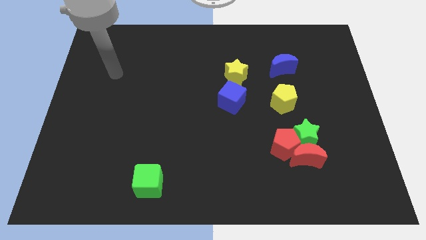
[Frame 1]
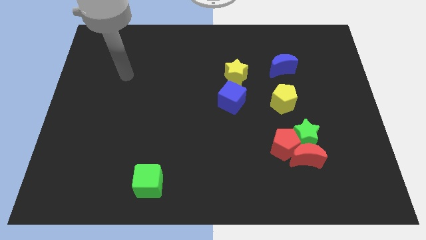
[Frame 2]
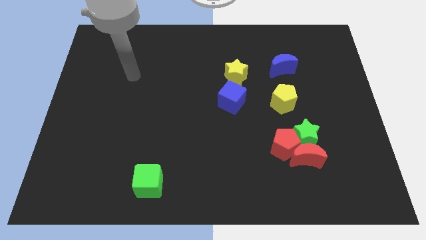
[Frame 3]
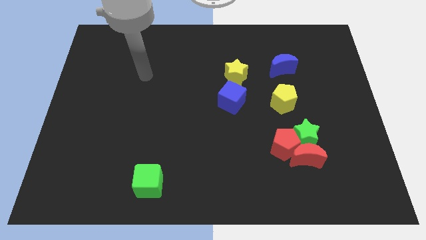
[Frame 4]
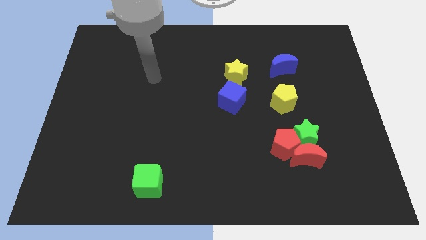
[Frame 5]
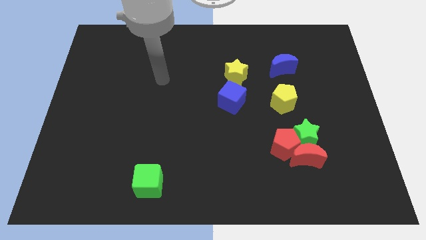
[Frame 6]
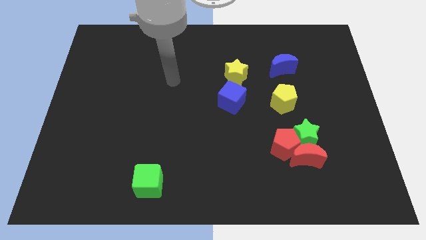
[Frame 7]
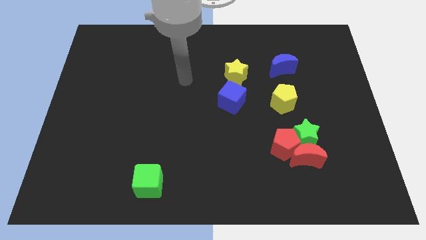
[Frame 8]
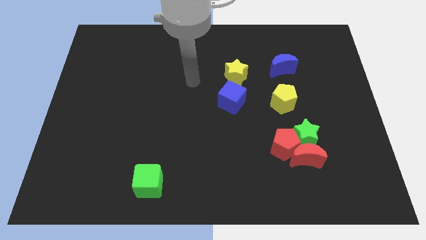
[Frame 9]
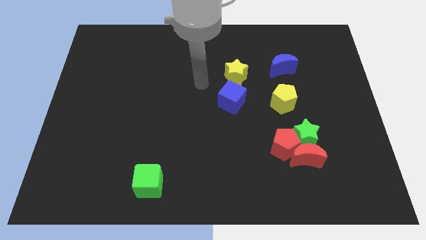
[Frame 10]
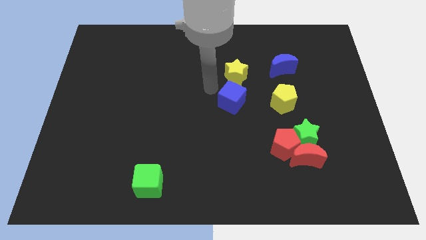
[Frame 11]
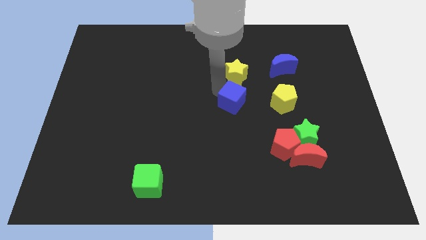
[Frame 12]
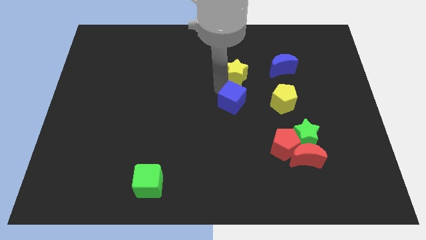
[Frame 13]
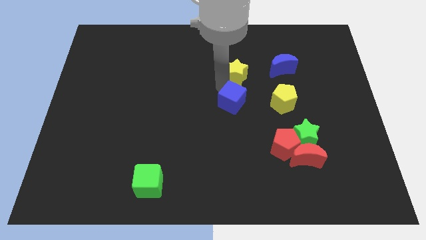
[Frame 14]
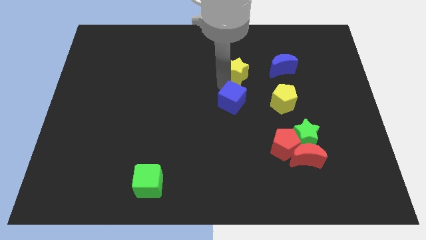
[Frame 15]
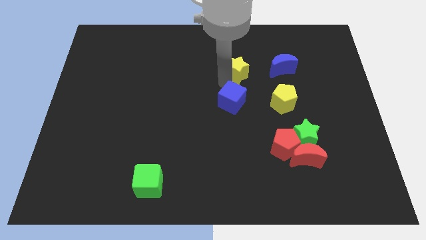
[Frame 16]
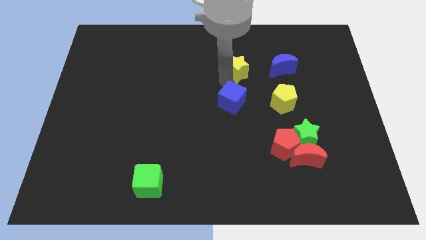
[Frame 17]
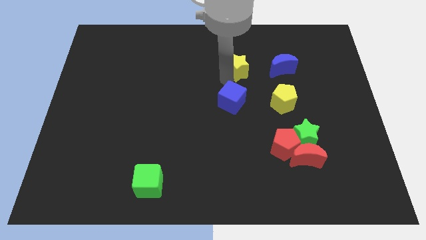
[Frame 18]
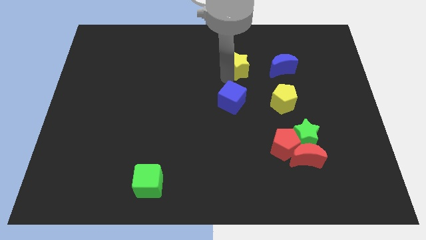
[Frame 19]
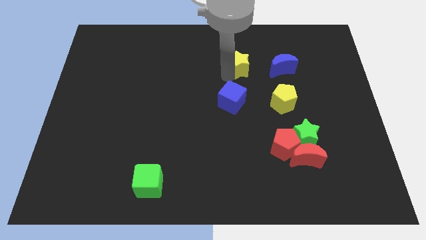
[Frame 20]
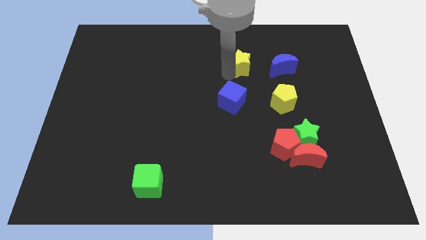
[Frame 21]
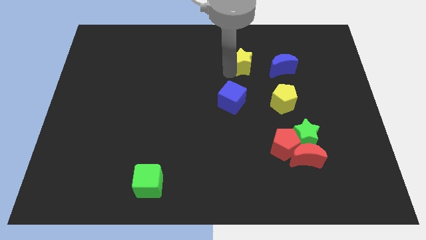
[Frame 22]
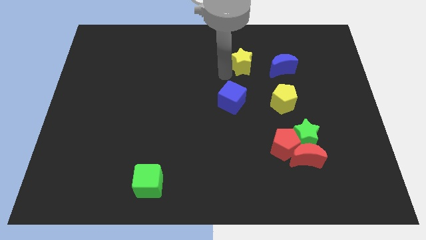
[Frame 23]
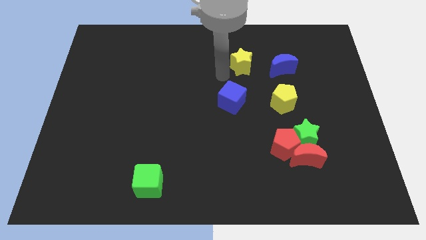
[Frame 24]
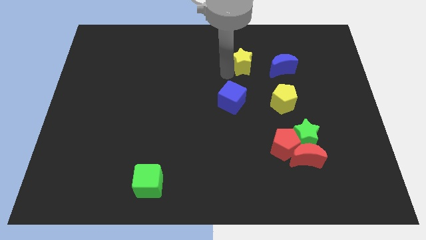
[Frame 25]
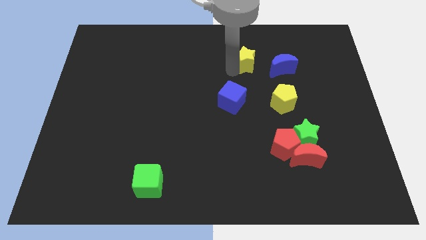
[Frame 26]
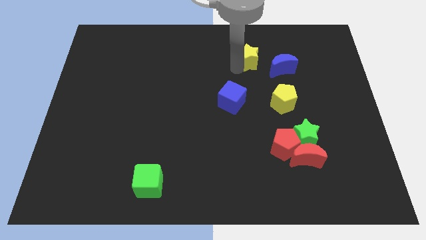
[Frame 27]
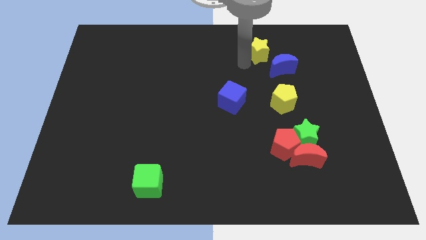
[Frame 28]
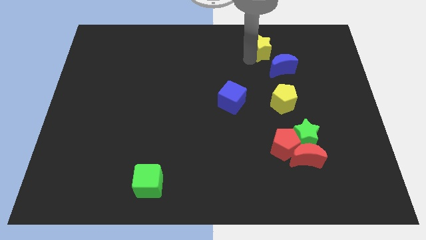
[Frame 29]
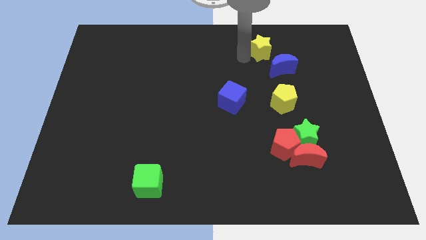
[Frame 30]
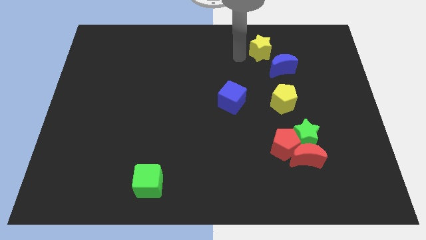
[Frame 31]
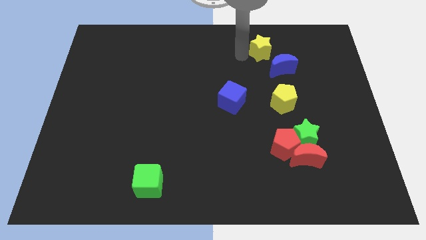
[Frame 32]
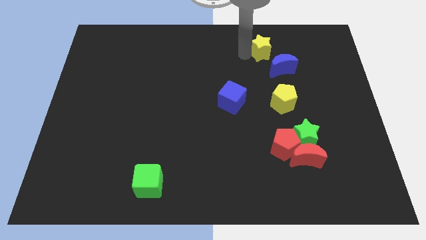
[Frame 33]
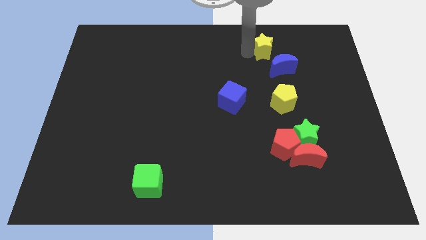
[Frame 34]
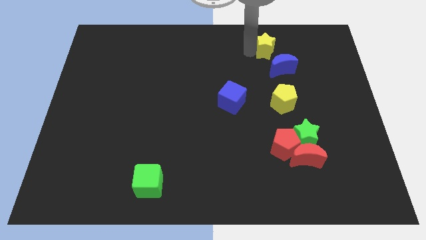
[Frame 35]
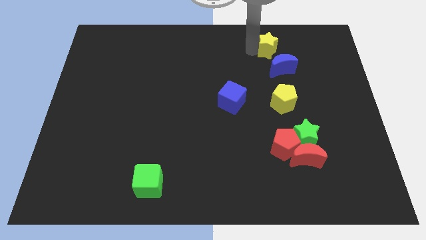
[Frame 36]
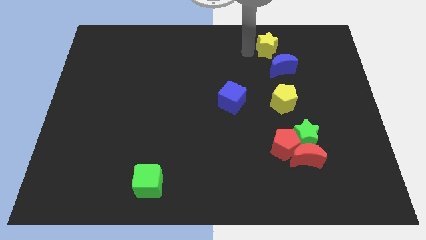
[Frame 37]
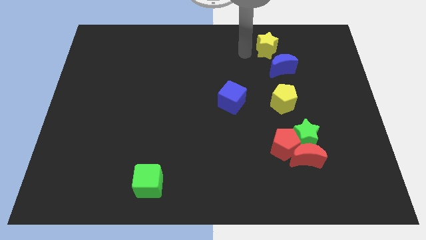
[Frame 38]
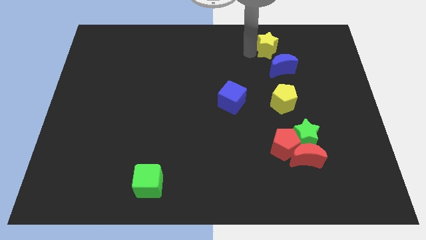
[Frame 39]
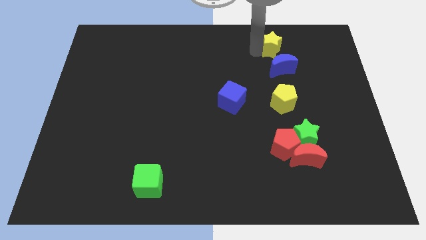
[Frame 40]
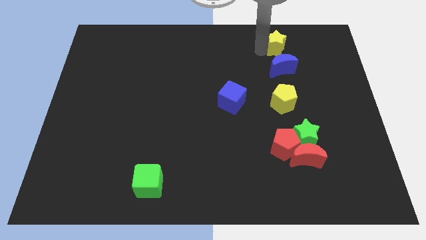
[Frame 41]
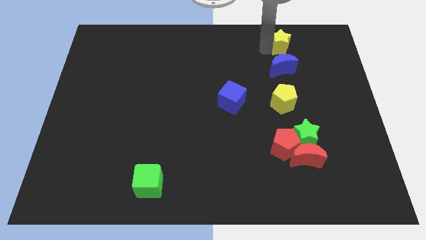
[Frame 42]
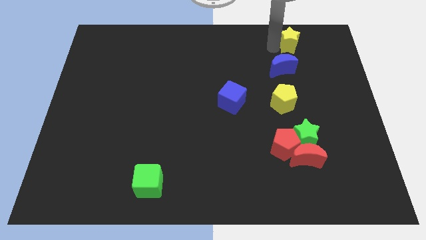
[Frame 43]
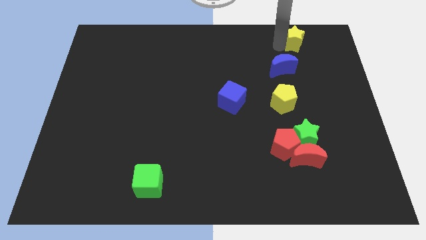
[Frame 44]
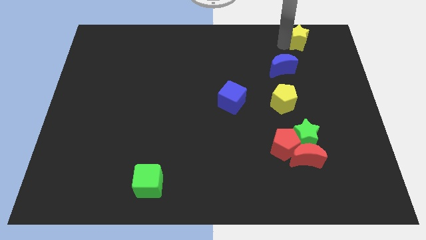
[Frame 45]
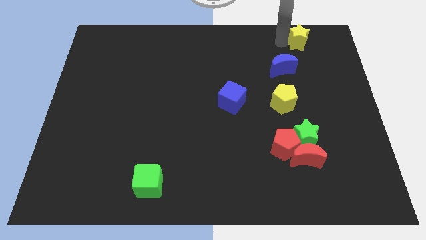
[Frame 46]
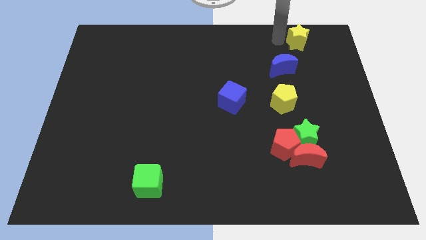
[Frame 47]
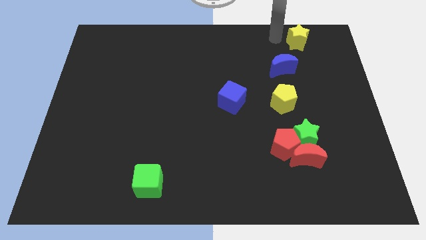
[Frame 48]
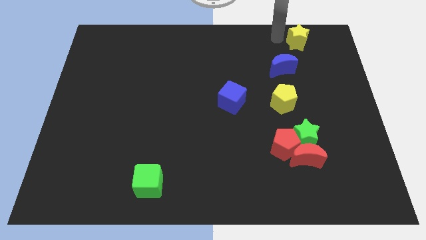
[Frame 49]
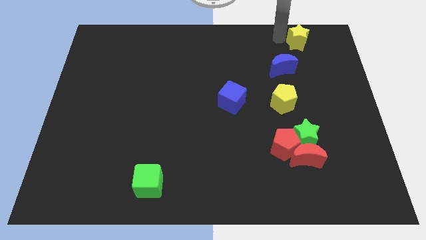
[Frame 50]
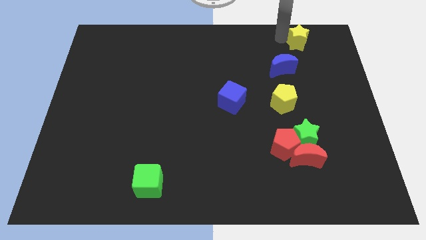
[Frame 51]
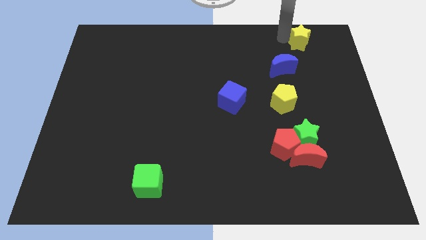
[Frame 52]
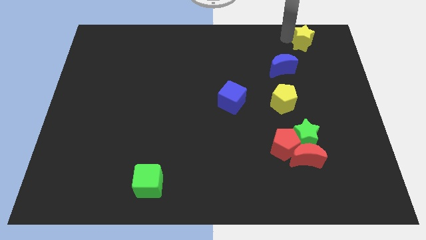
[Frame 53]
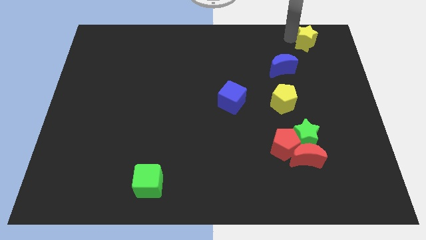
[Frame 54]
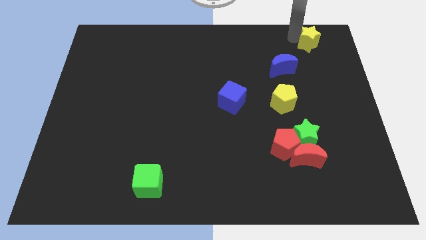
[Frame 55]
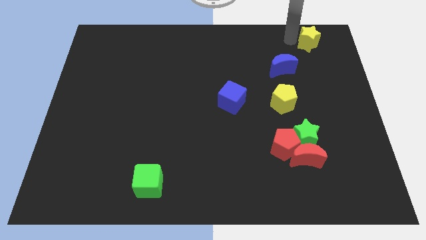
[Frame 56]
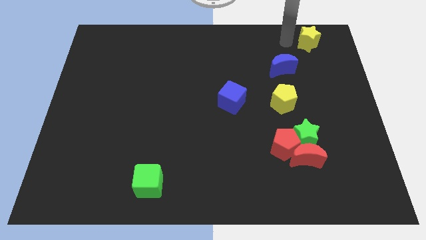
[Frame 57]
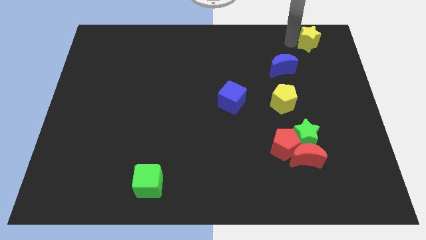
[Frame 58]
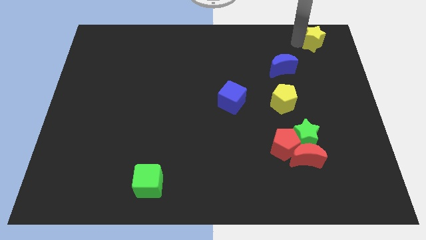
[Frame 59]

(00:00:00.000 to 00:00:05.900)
push the yellow star to the top right corner

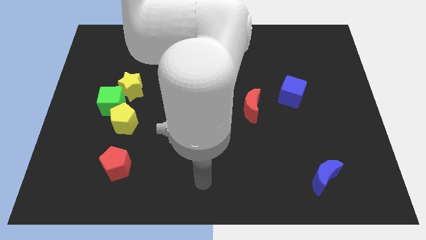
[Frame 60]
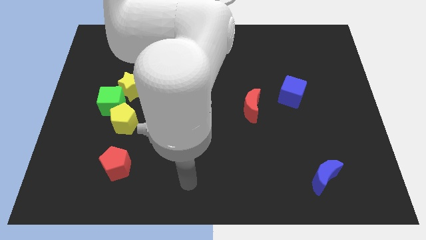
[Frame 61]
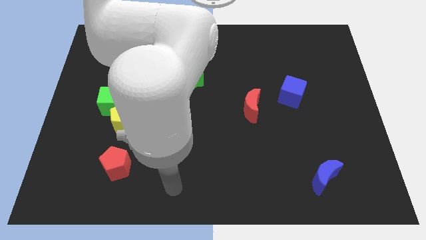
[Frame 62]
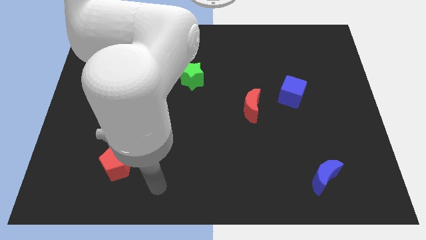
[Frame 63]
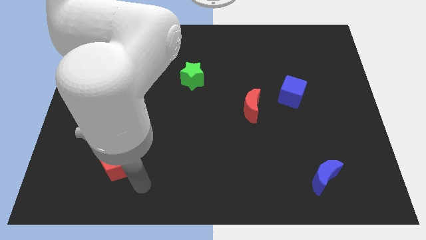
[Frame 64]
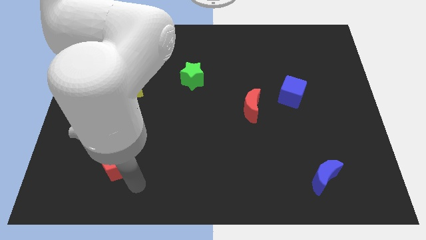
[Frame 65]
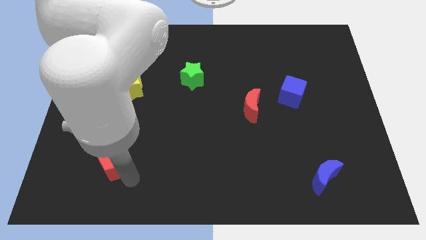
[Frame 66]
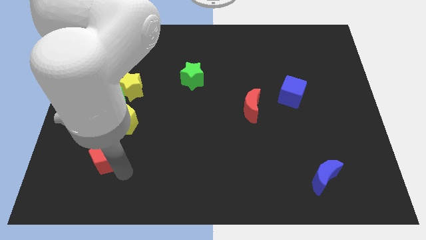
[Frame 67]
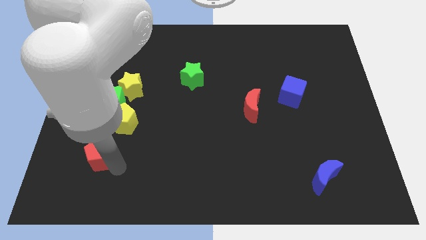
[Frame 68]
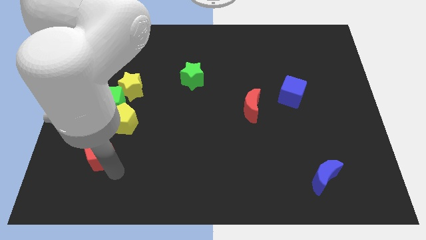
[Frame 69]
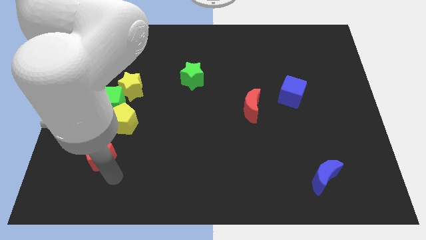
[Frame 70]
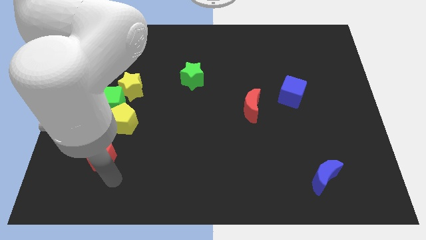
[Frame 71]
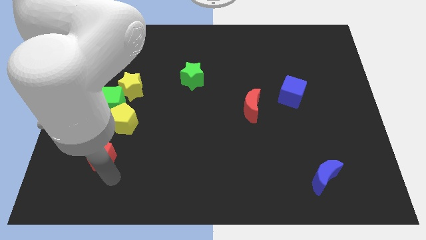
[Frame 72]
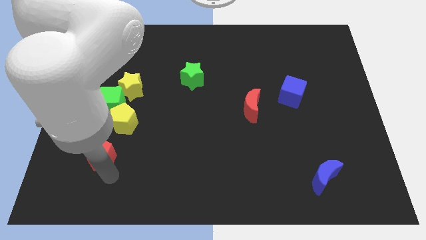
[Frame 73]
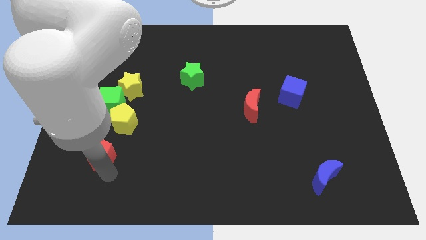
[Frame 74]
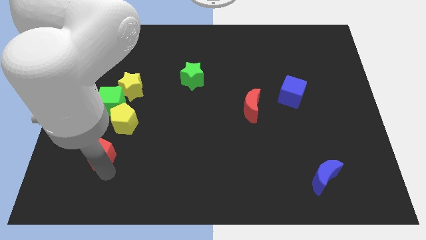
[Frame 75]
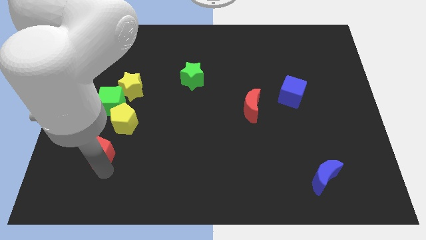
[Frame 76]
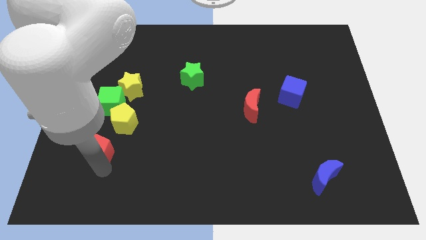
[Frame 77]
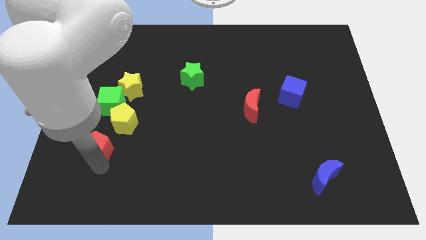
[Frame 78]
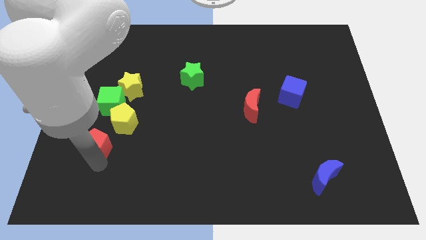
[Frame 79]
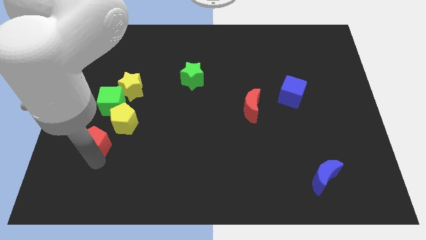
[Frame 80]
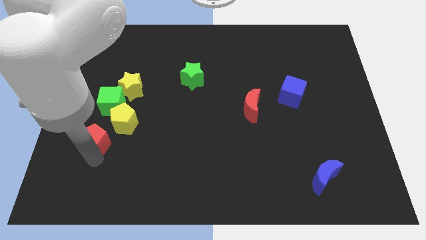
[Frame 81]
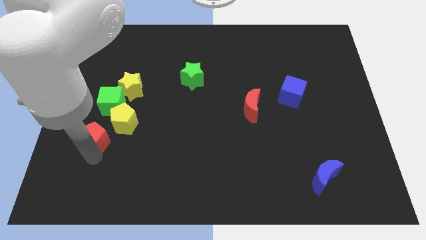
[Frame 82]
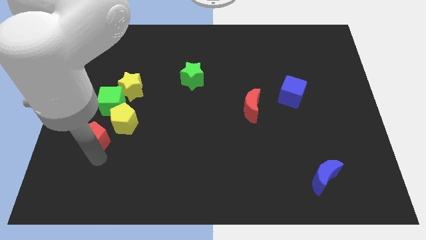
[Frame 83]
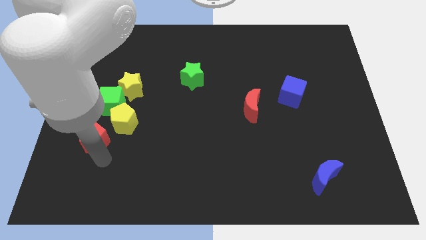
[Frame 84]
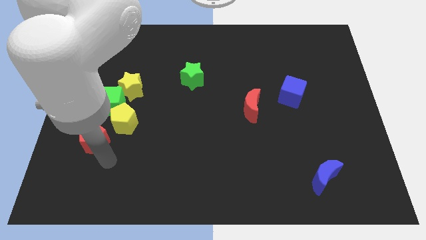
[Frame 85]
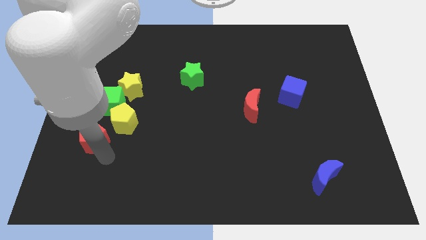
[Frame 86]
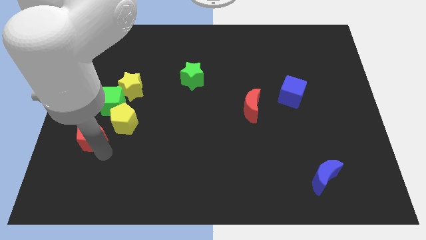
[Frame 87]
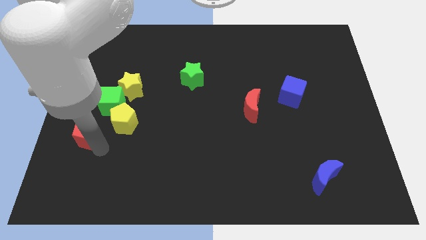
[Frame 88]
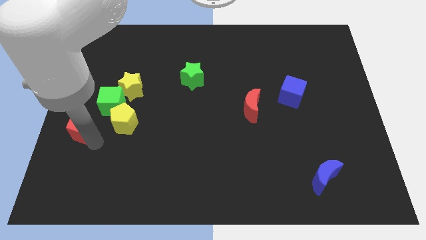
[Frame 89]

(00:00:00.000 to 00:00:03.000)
push the red pentagon to the left side of the board
